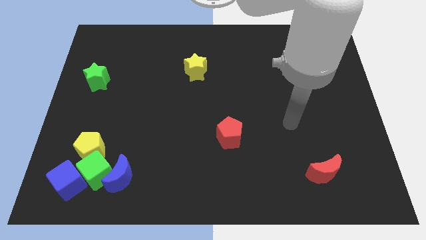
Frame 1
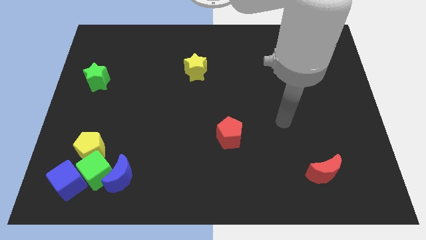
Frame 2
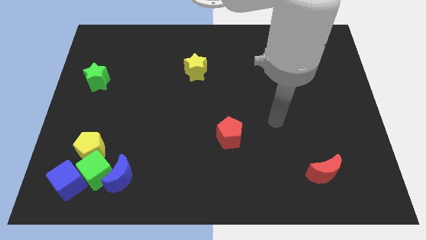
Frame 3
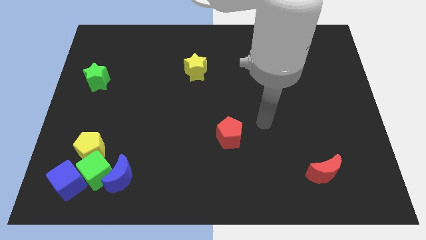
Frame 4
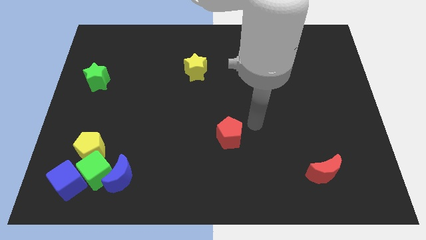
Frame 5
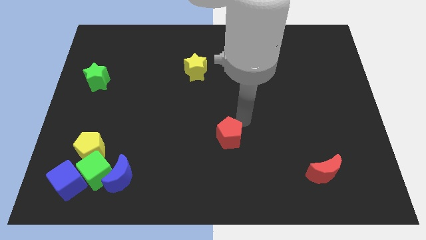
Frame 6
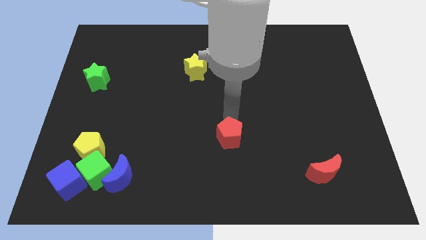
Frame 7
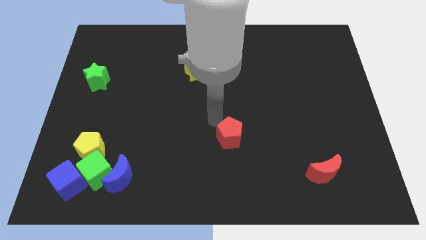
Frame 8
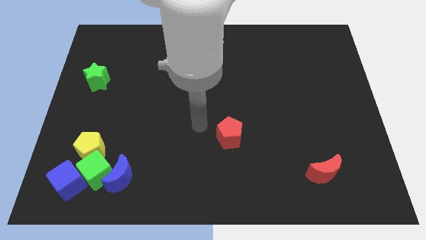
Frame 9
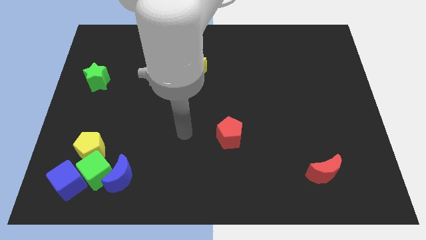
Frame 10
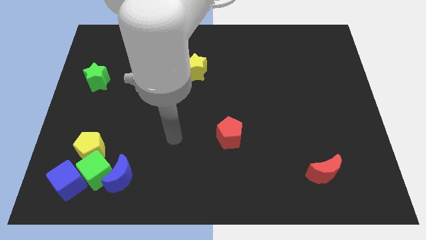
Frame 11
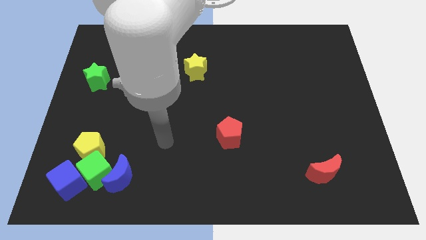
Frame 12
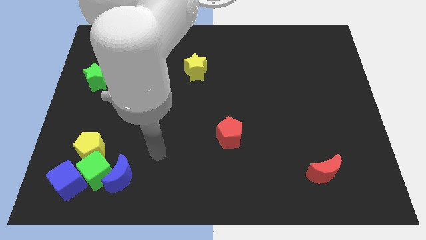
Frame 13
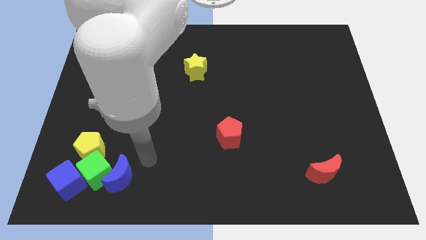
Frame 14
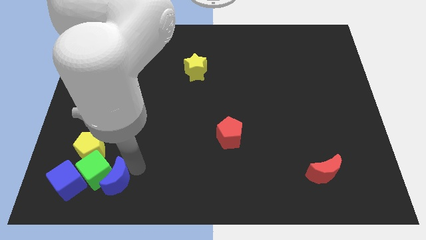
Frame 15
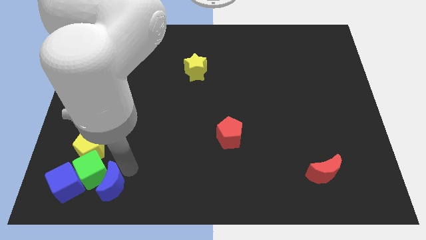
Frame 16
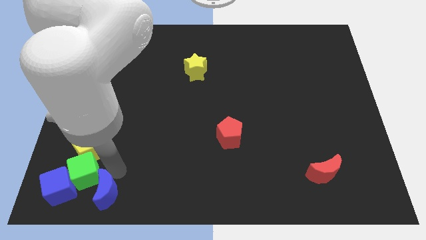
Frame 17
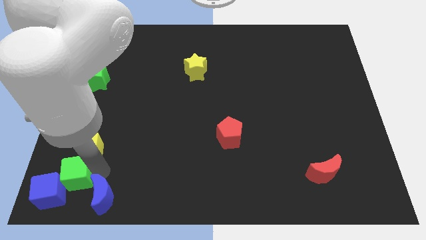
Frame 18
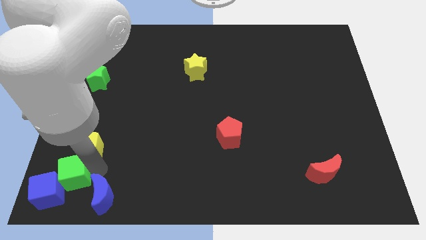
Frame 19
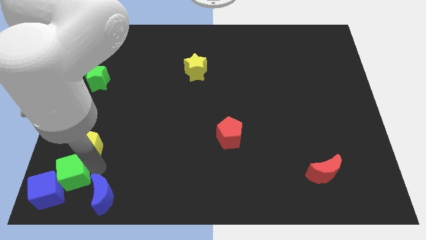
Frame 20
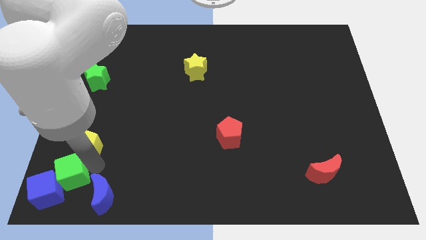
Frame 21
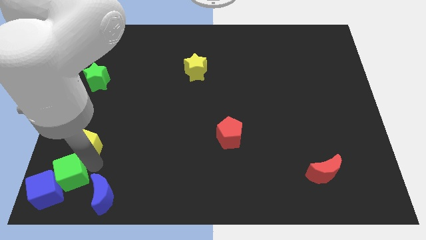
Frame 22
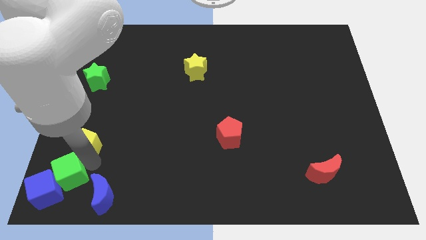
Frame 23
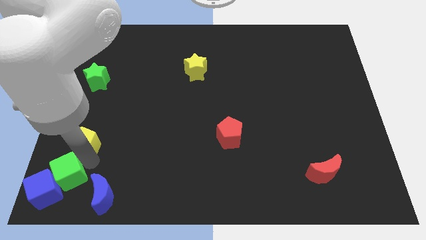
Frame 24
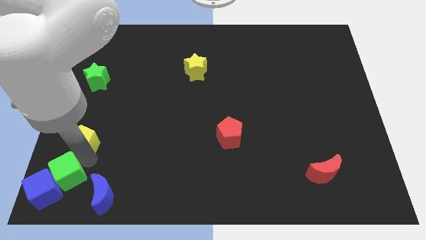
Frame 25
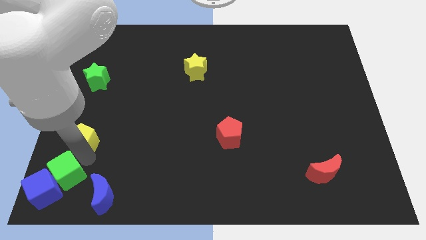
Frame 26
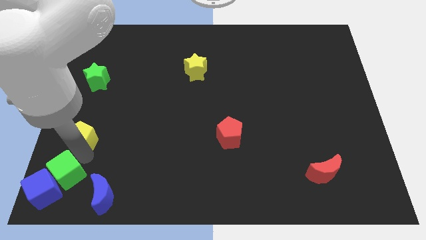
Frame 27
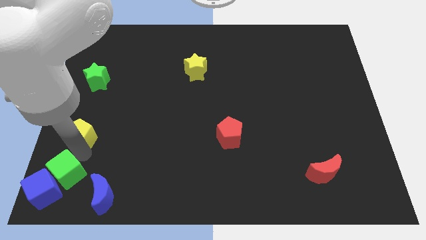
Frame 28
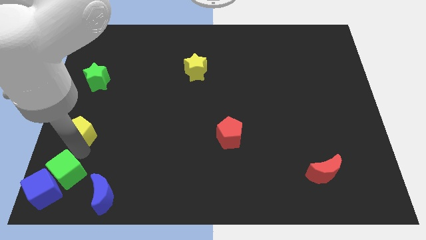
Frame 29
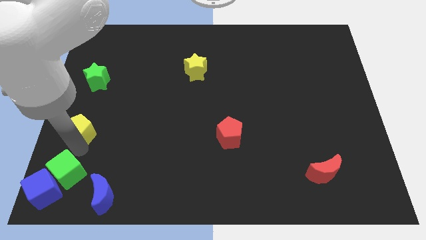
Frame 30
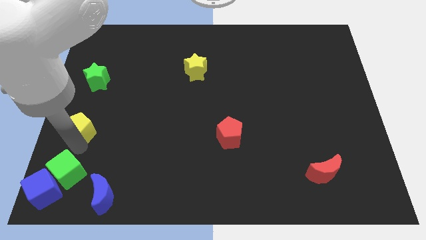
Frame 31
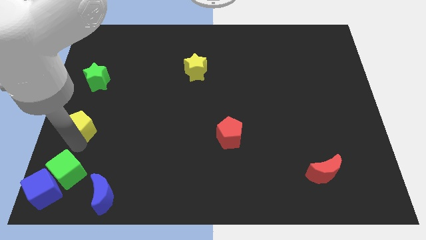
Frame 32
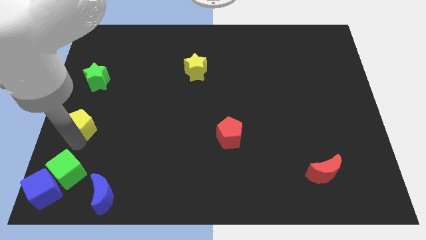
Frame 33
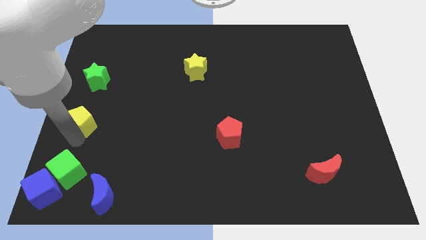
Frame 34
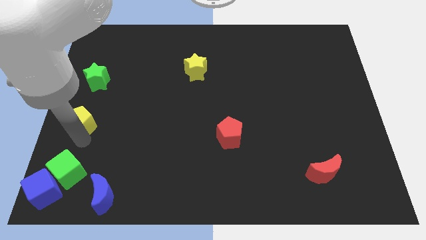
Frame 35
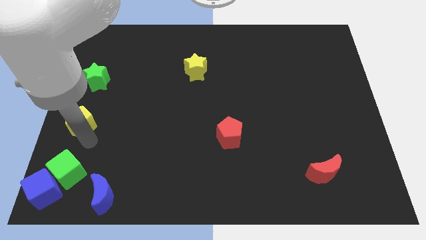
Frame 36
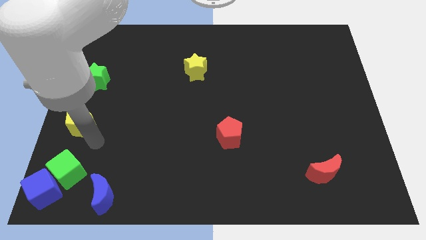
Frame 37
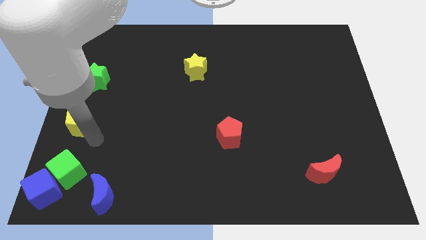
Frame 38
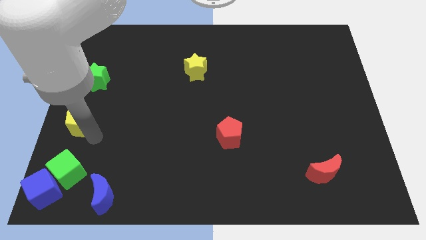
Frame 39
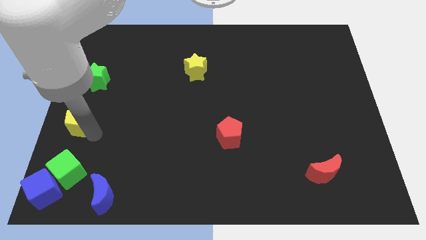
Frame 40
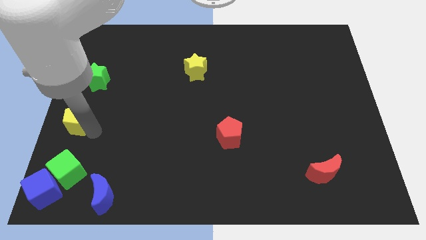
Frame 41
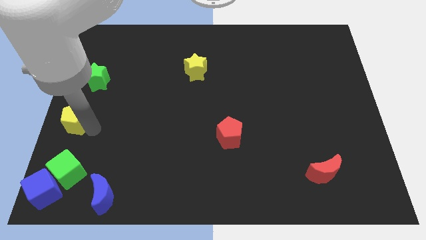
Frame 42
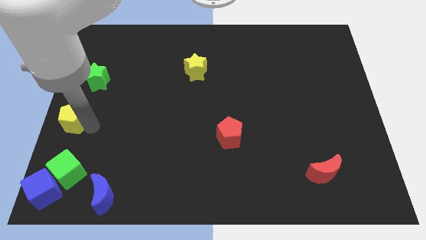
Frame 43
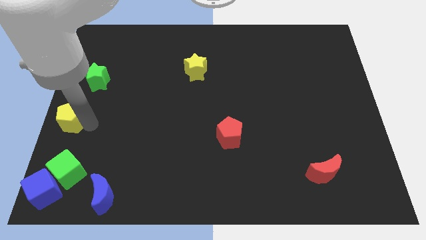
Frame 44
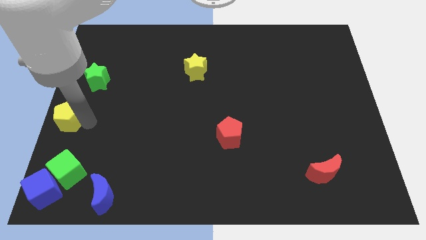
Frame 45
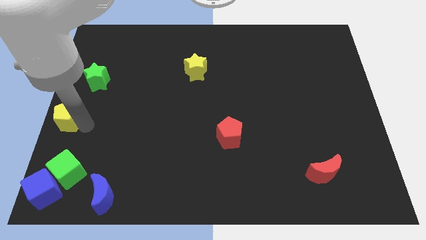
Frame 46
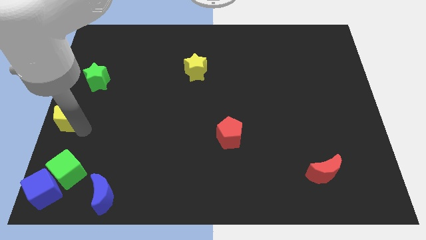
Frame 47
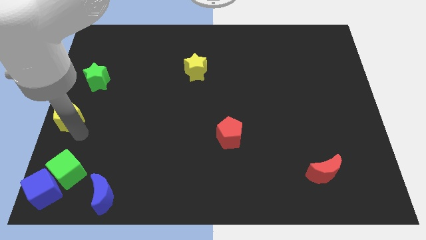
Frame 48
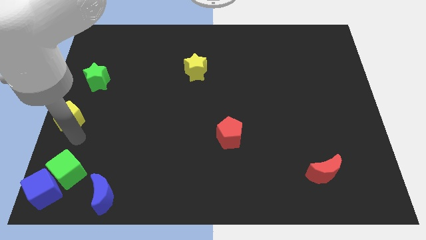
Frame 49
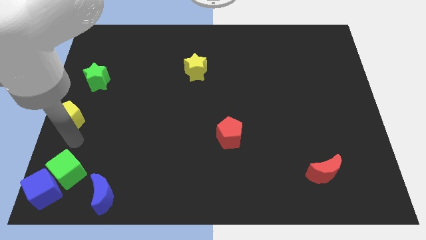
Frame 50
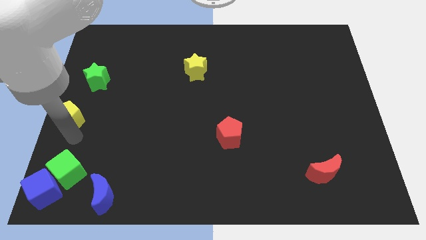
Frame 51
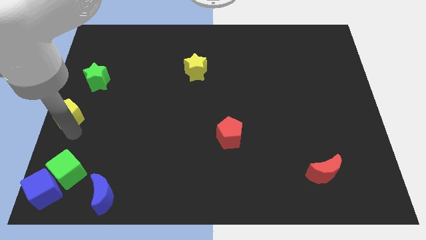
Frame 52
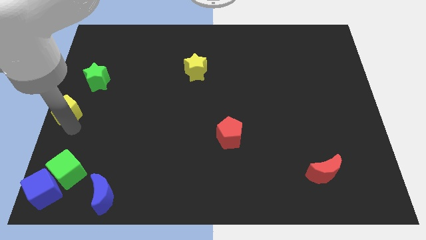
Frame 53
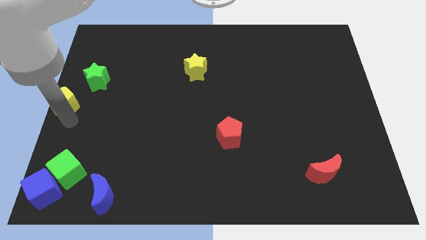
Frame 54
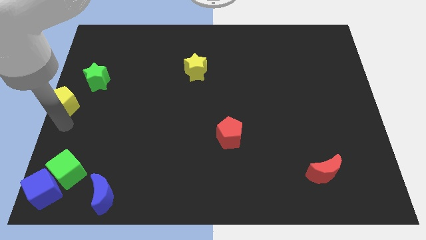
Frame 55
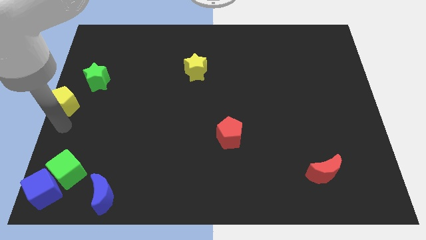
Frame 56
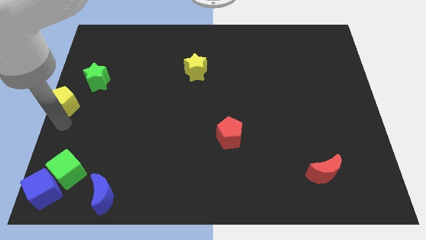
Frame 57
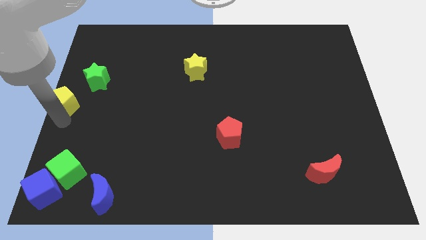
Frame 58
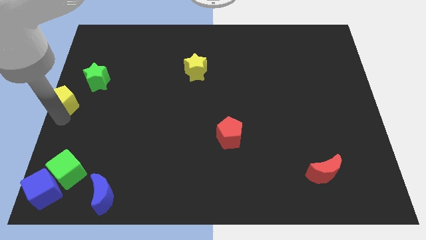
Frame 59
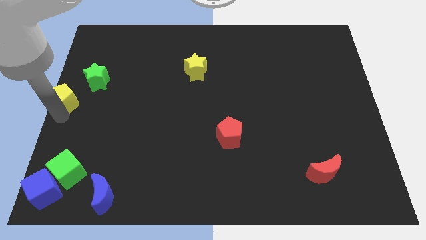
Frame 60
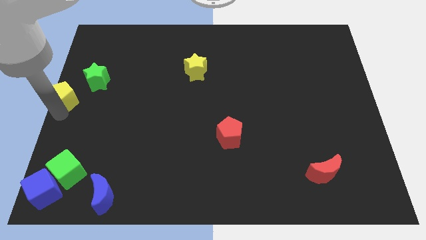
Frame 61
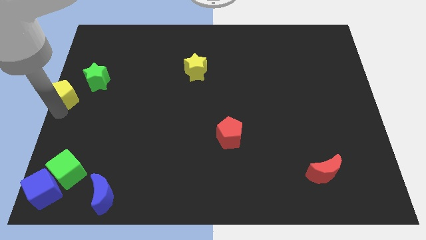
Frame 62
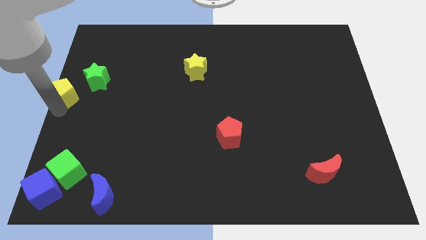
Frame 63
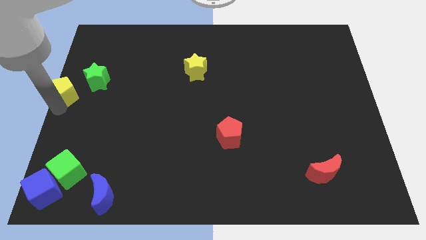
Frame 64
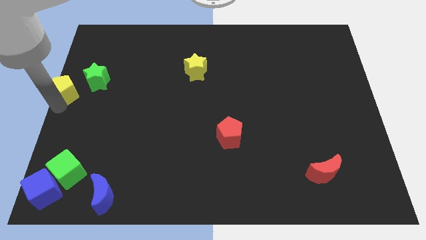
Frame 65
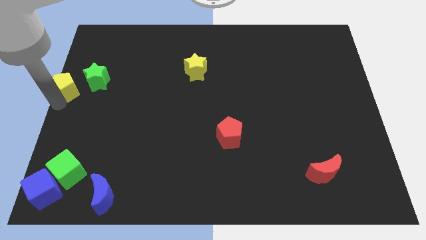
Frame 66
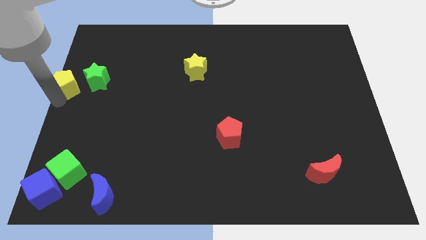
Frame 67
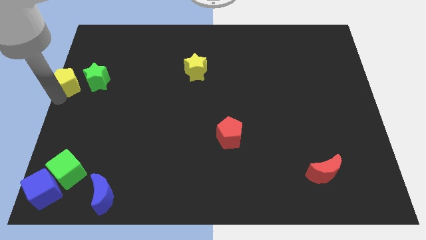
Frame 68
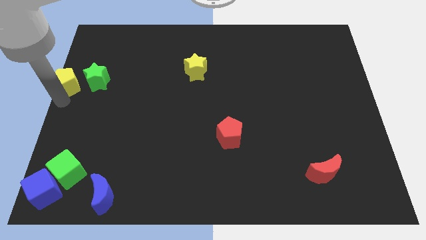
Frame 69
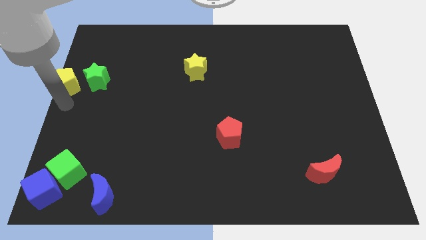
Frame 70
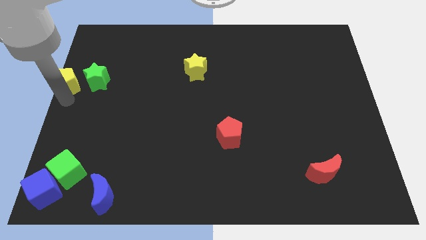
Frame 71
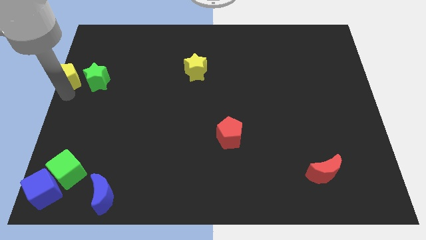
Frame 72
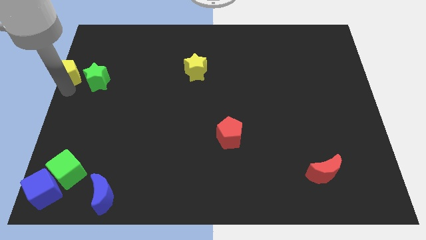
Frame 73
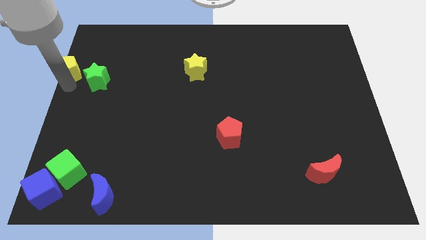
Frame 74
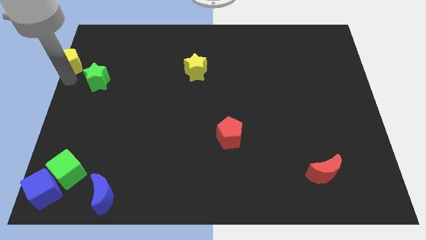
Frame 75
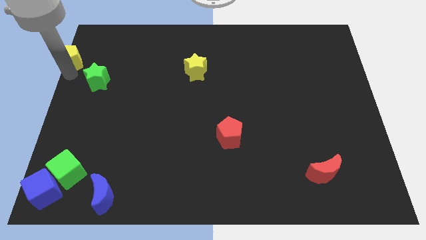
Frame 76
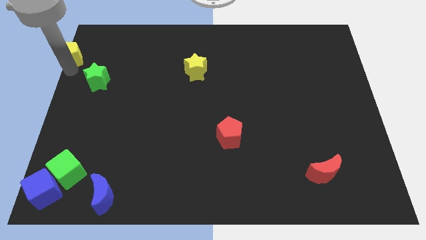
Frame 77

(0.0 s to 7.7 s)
push the yellow pentagon to the top left of the board
